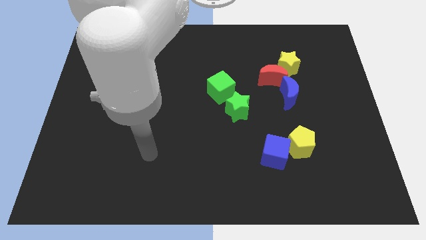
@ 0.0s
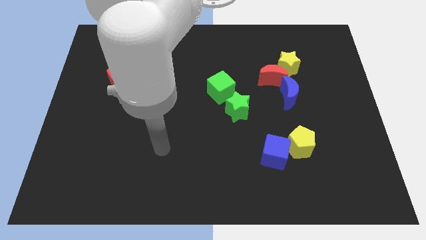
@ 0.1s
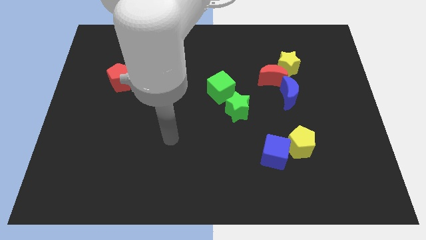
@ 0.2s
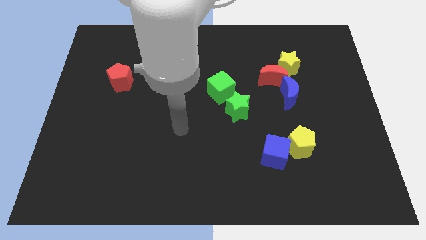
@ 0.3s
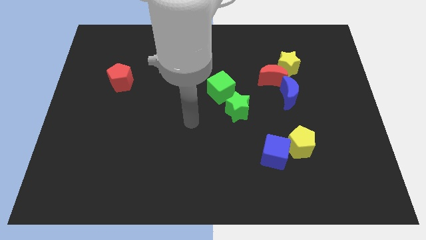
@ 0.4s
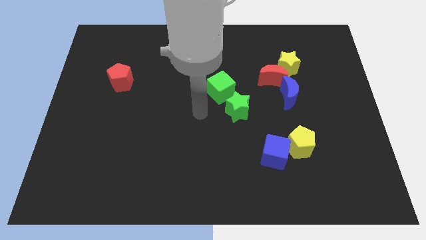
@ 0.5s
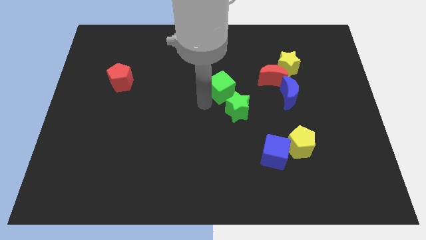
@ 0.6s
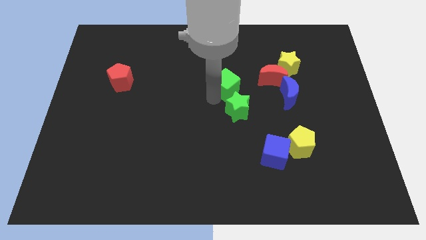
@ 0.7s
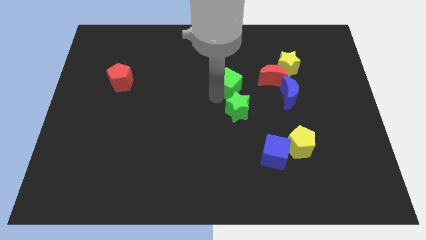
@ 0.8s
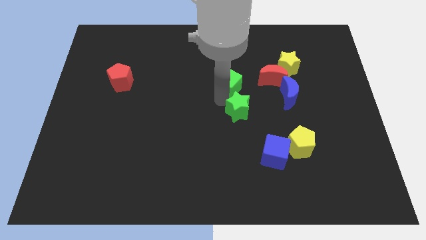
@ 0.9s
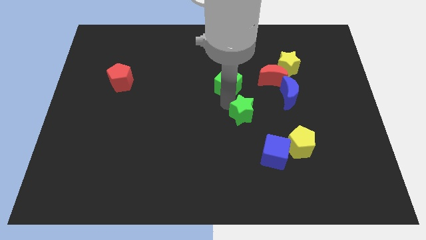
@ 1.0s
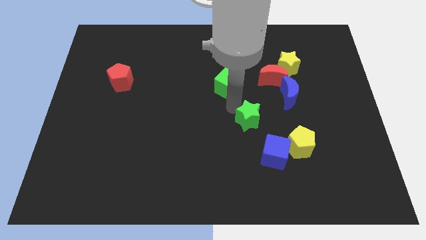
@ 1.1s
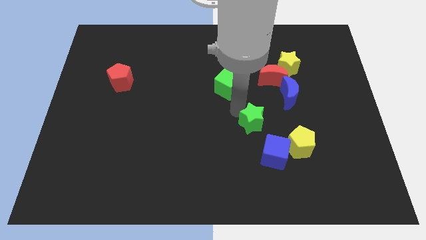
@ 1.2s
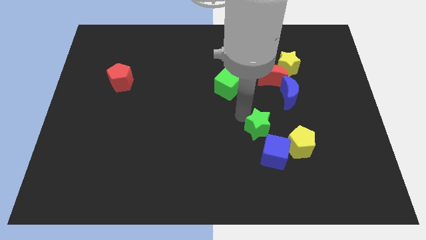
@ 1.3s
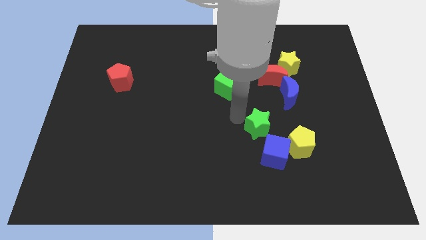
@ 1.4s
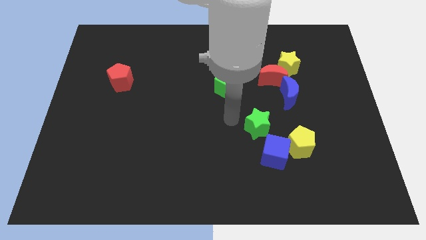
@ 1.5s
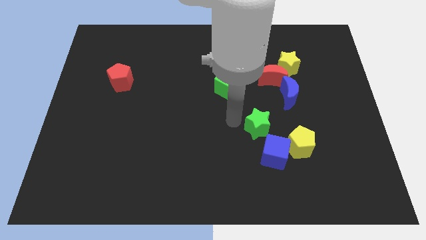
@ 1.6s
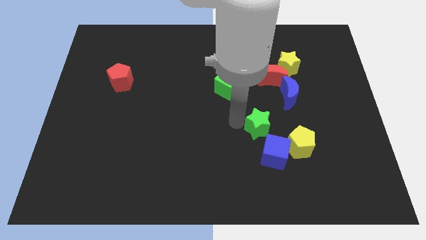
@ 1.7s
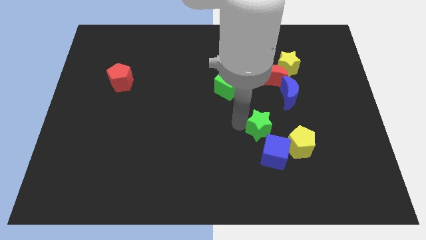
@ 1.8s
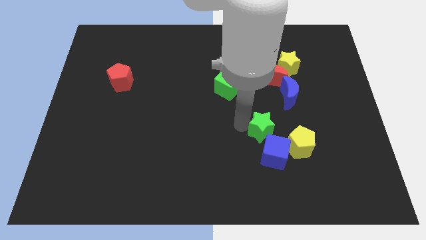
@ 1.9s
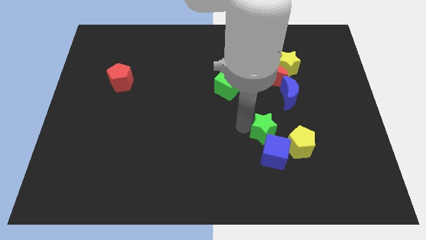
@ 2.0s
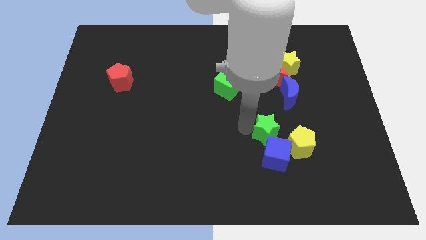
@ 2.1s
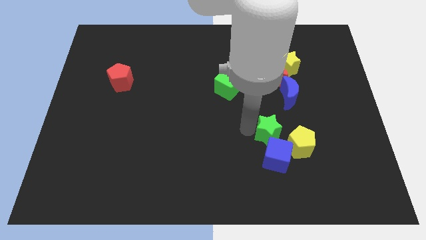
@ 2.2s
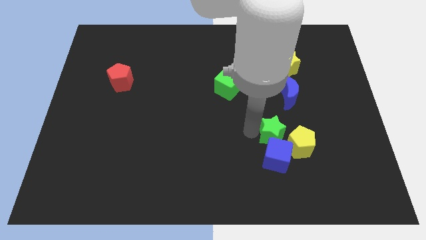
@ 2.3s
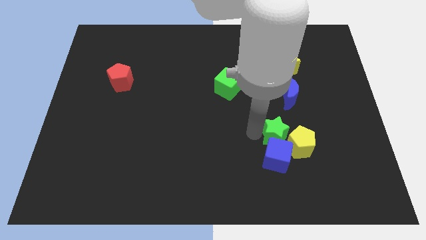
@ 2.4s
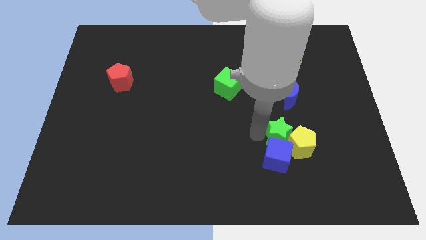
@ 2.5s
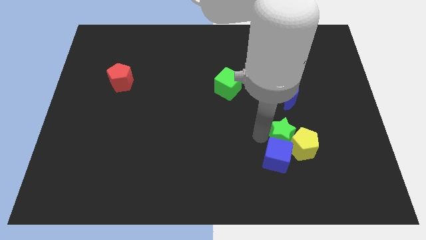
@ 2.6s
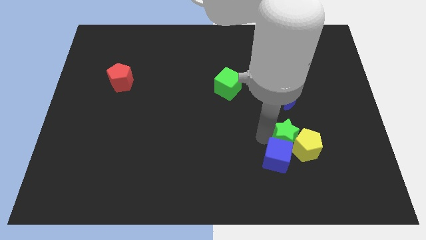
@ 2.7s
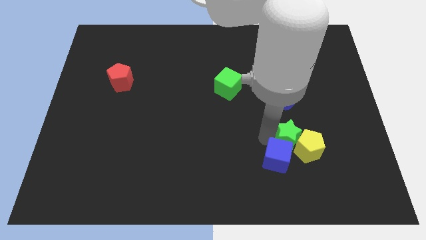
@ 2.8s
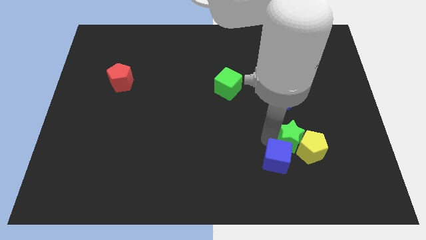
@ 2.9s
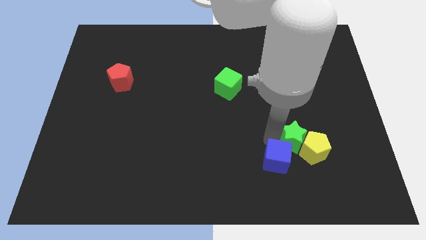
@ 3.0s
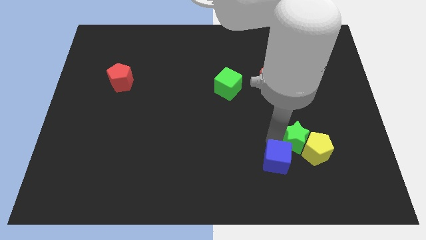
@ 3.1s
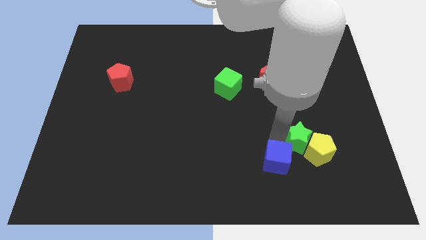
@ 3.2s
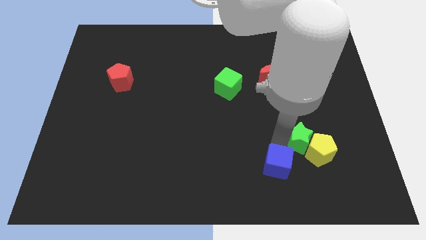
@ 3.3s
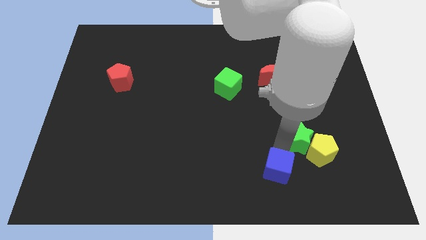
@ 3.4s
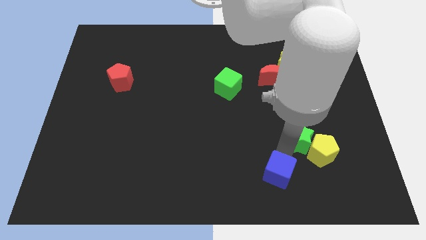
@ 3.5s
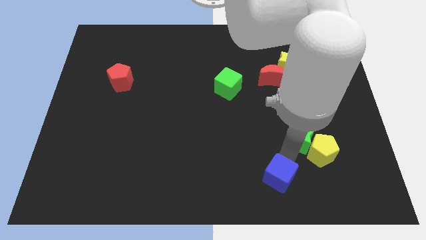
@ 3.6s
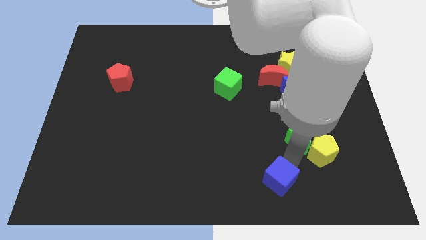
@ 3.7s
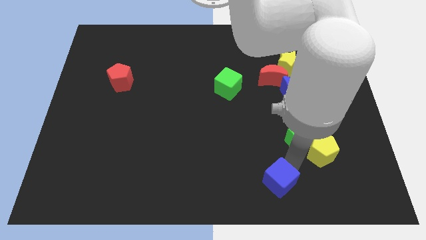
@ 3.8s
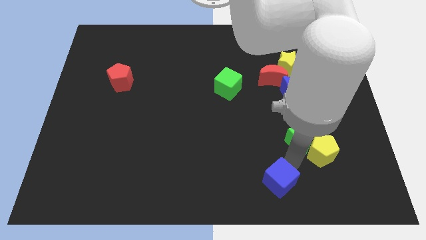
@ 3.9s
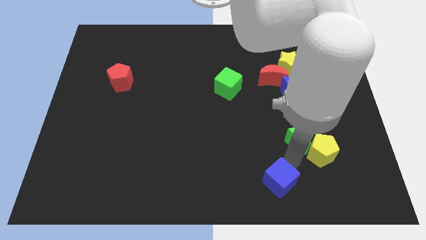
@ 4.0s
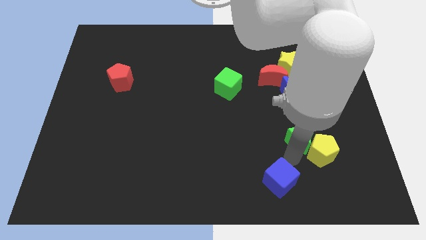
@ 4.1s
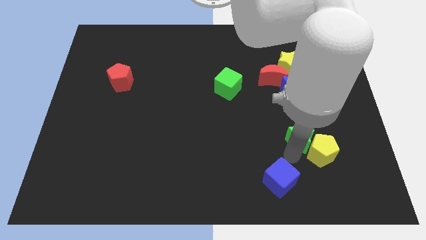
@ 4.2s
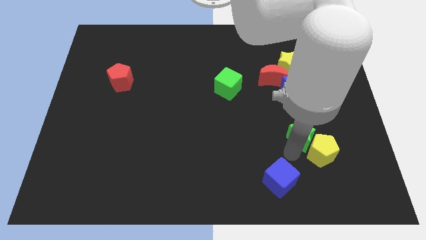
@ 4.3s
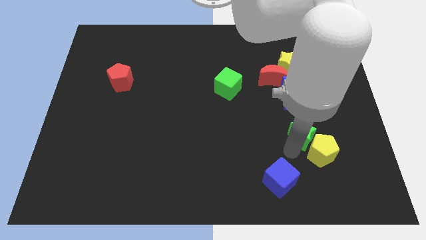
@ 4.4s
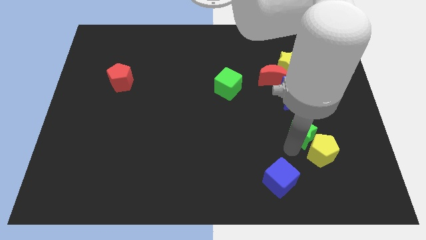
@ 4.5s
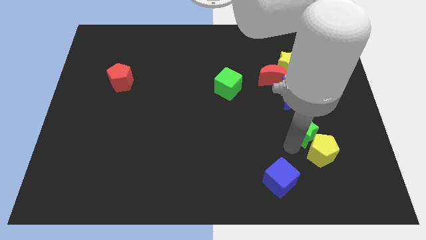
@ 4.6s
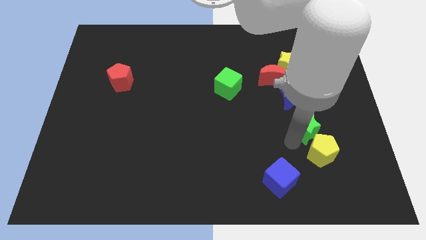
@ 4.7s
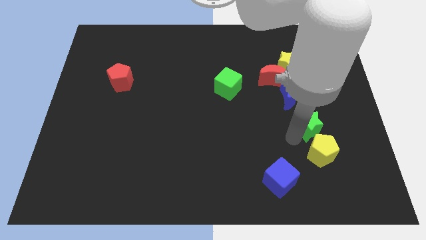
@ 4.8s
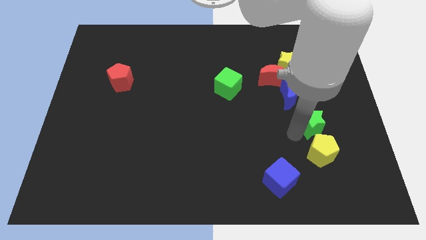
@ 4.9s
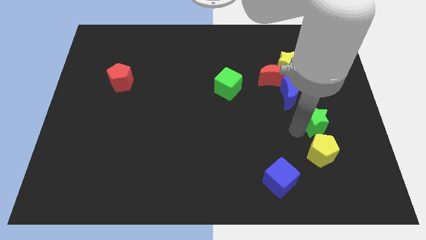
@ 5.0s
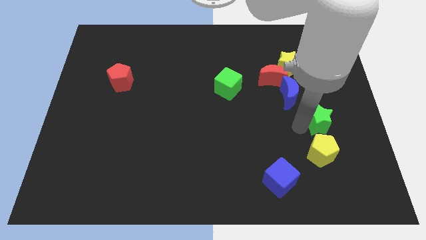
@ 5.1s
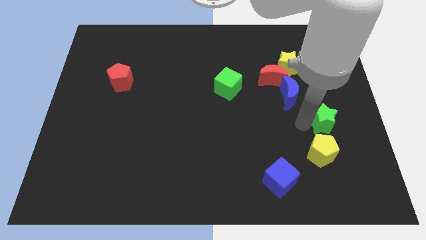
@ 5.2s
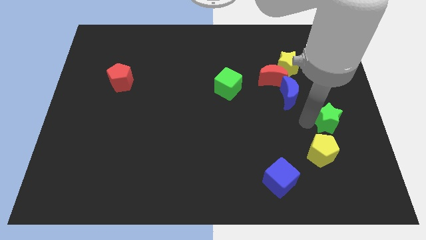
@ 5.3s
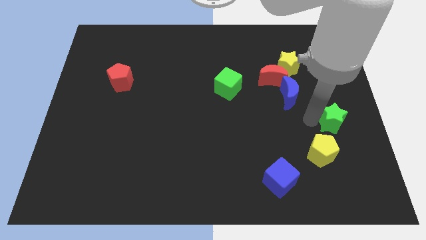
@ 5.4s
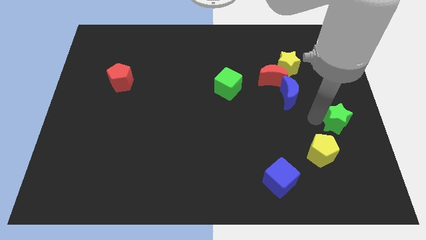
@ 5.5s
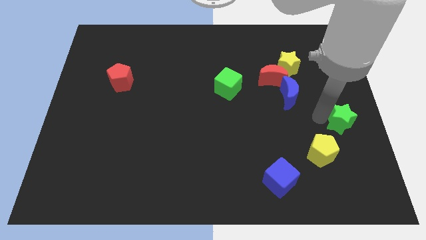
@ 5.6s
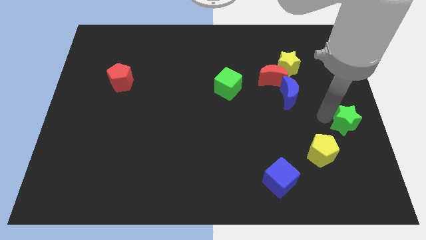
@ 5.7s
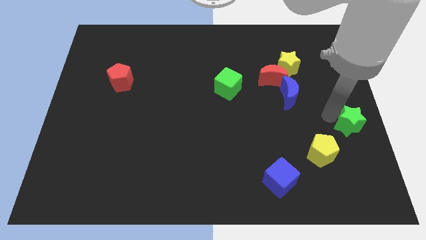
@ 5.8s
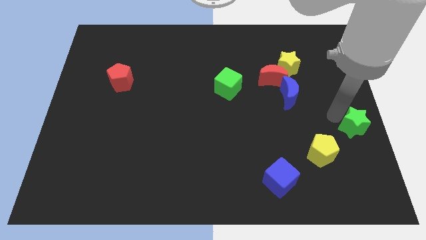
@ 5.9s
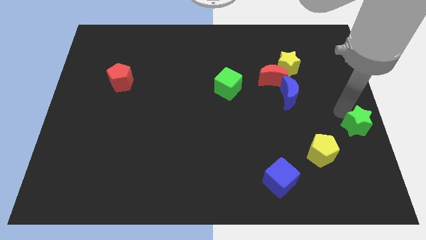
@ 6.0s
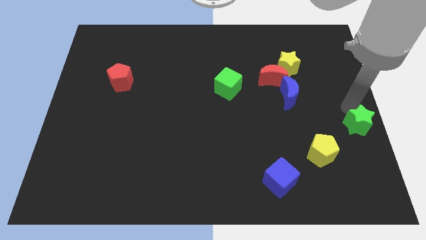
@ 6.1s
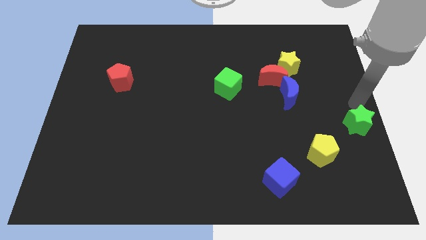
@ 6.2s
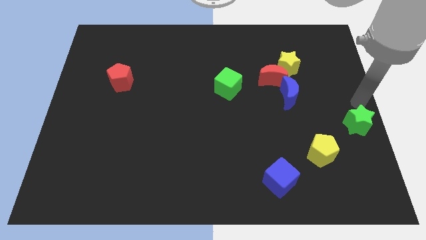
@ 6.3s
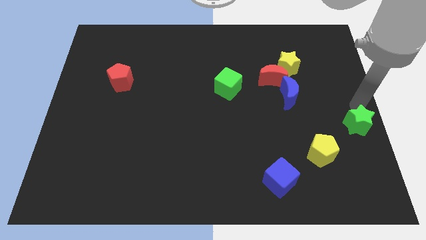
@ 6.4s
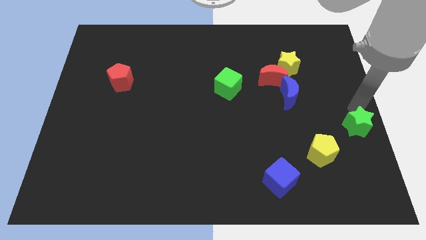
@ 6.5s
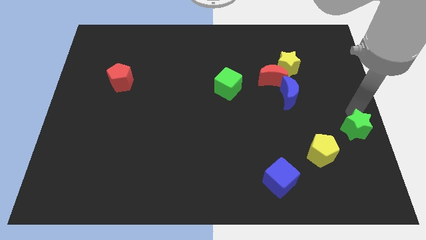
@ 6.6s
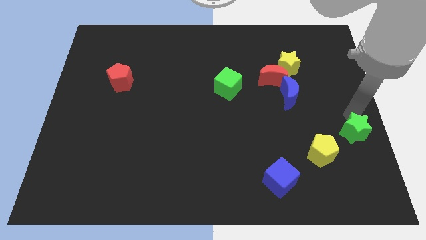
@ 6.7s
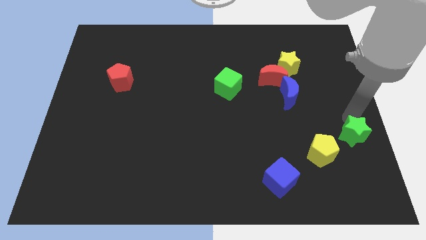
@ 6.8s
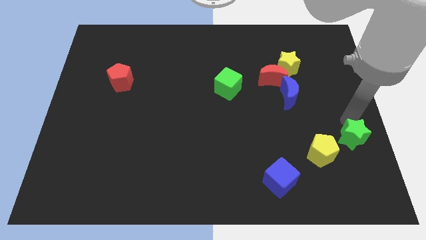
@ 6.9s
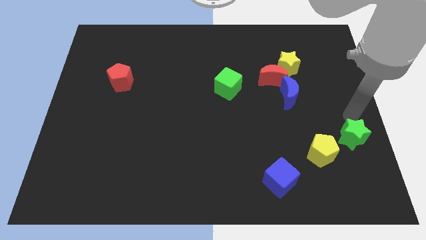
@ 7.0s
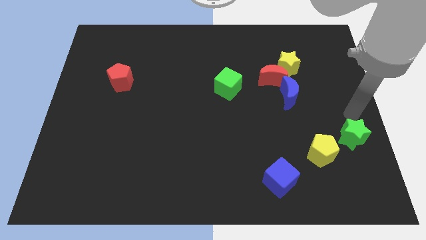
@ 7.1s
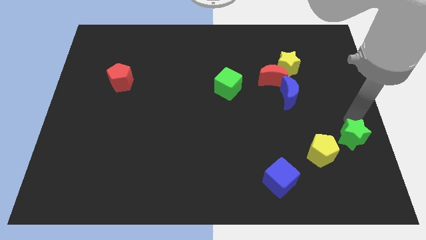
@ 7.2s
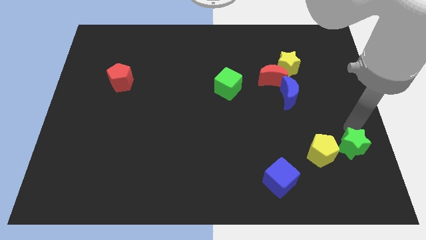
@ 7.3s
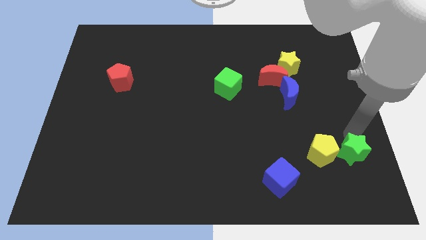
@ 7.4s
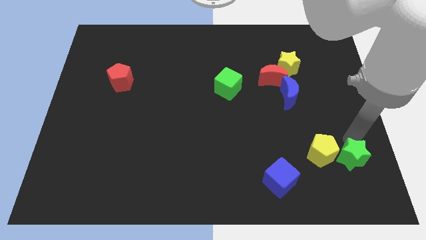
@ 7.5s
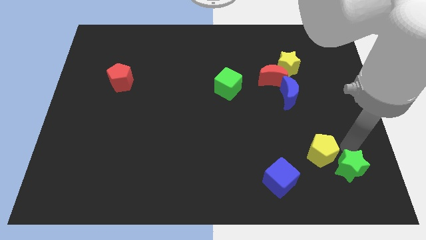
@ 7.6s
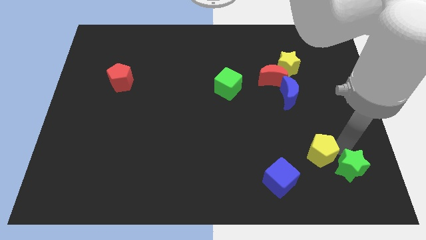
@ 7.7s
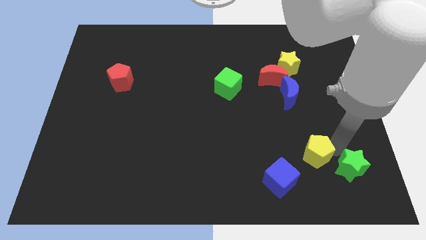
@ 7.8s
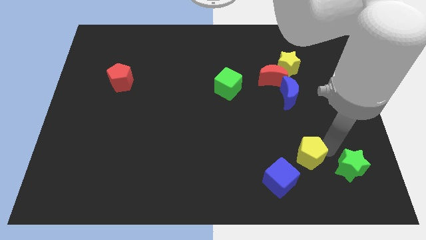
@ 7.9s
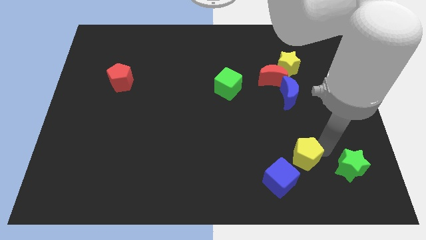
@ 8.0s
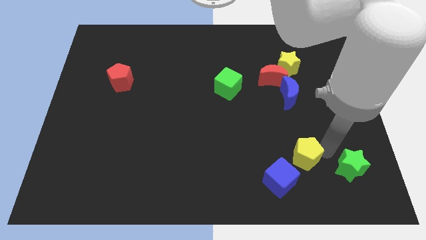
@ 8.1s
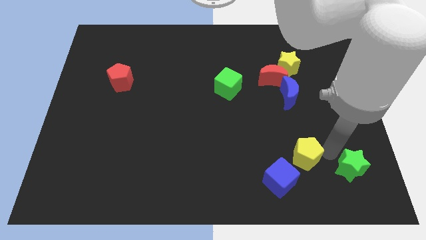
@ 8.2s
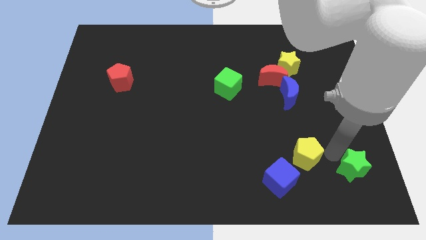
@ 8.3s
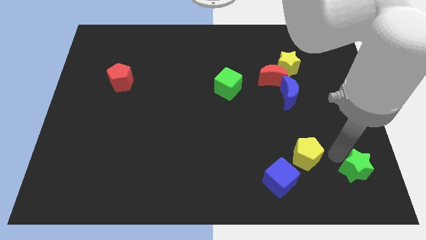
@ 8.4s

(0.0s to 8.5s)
slide the green star to the lower right corner
